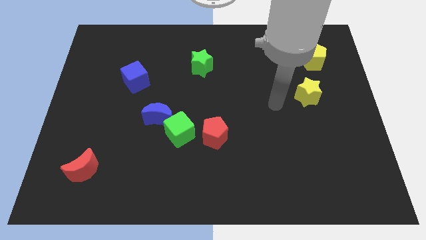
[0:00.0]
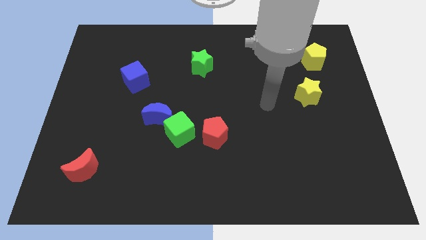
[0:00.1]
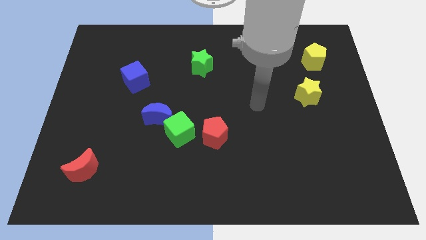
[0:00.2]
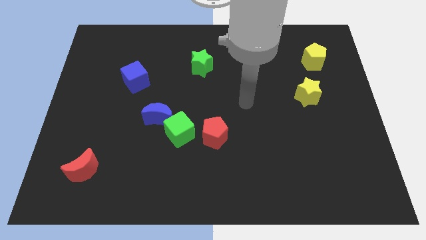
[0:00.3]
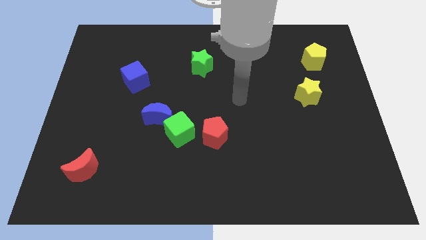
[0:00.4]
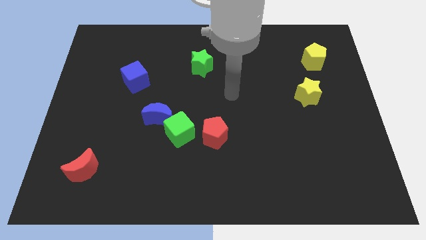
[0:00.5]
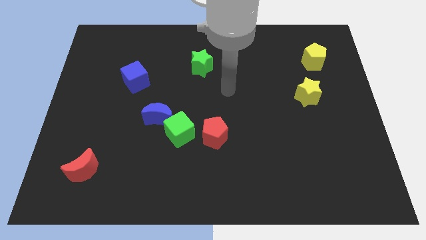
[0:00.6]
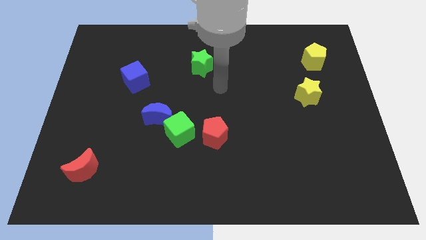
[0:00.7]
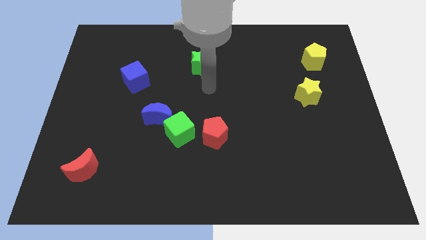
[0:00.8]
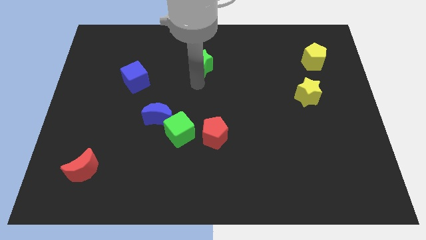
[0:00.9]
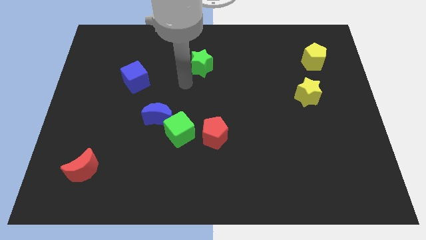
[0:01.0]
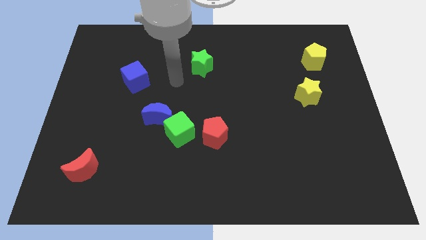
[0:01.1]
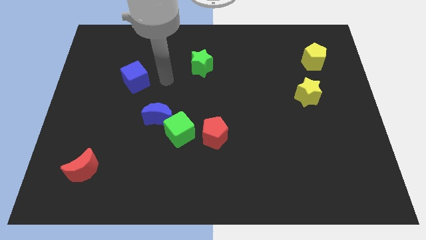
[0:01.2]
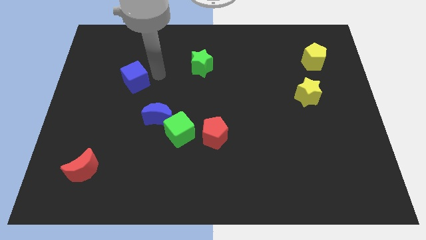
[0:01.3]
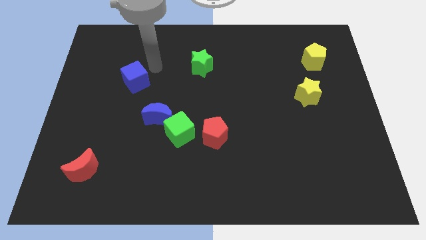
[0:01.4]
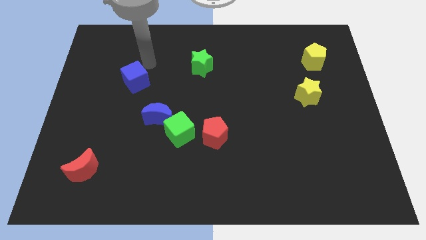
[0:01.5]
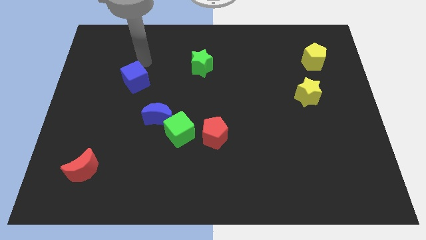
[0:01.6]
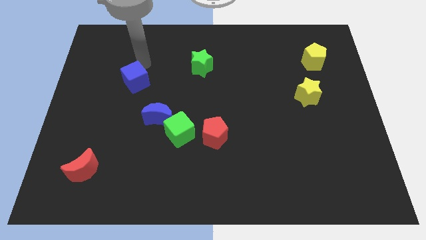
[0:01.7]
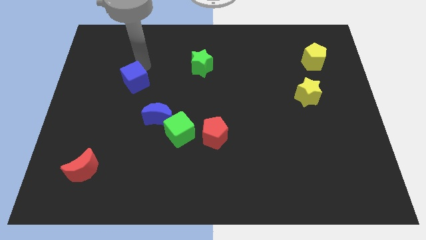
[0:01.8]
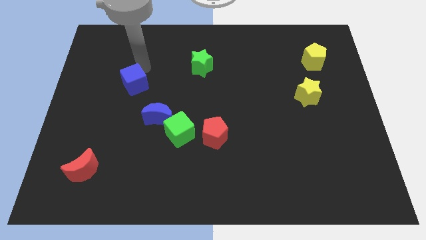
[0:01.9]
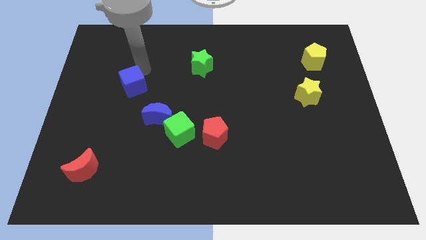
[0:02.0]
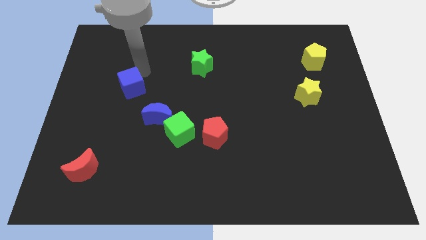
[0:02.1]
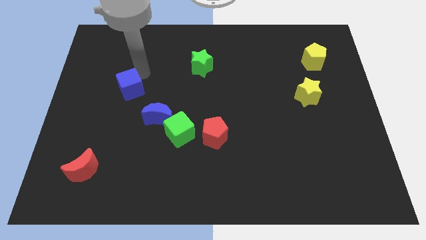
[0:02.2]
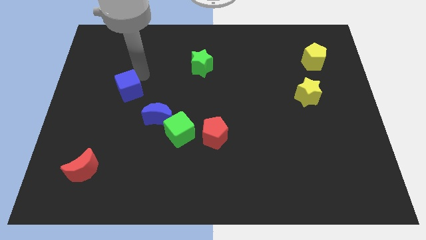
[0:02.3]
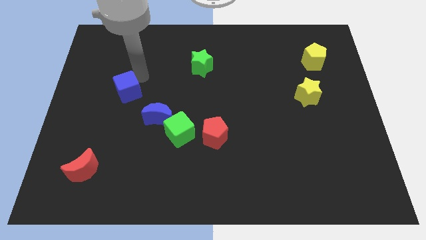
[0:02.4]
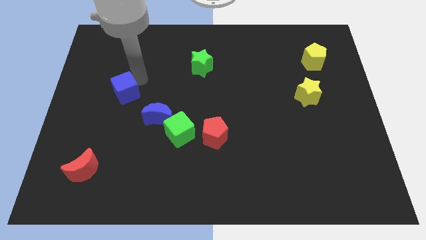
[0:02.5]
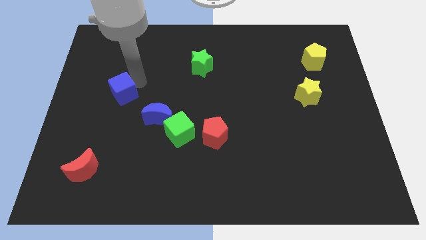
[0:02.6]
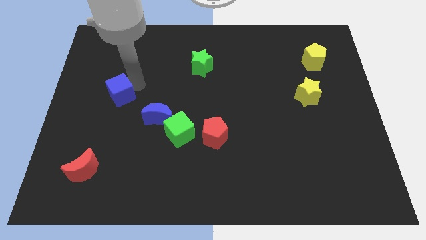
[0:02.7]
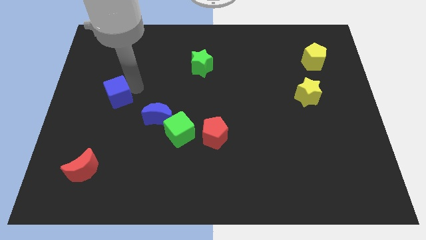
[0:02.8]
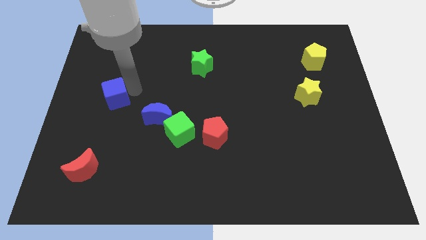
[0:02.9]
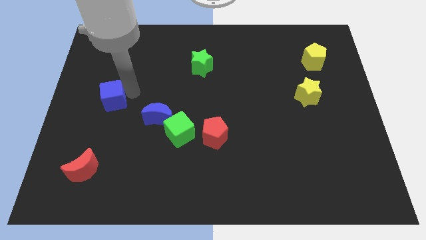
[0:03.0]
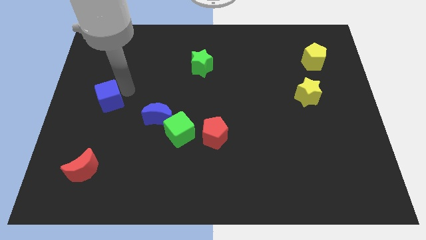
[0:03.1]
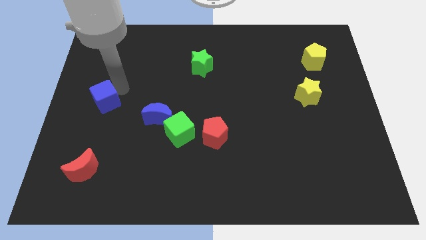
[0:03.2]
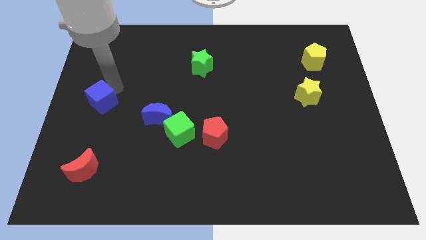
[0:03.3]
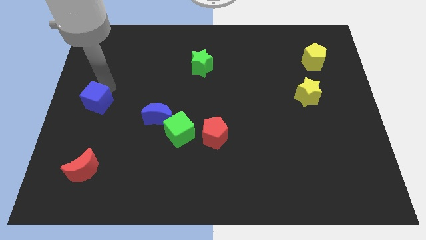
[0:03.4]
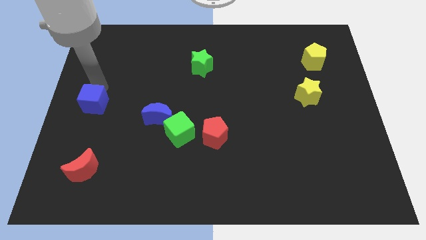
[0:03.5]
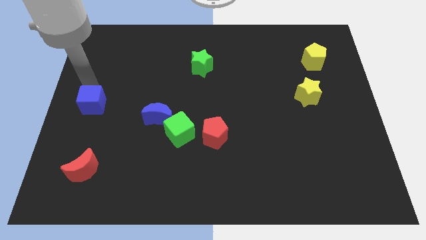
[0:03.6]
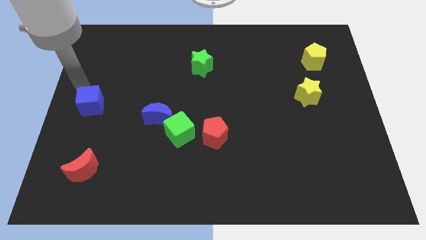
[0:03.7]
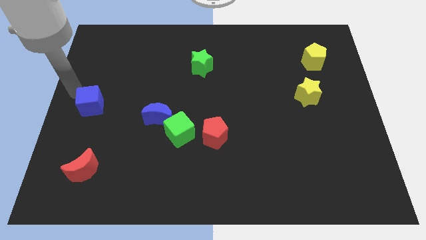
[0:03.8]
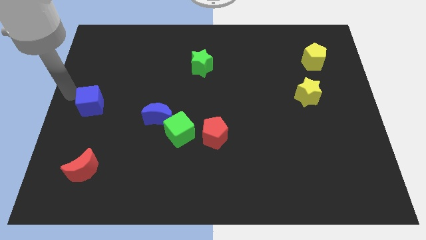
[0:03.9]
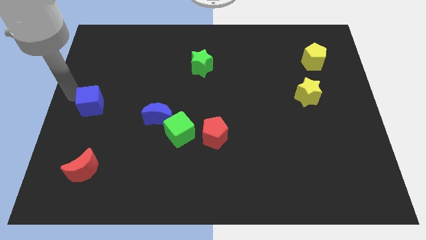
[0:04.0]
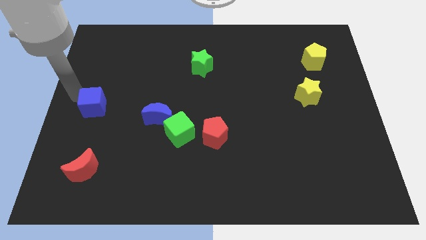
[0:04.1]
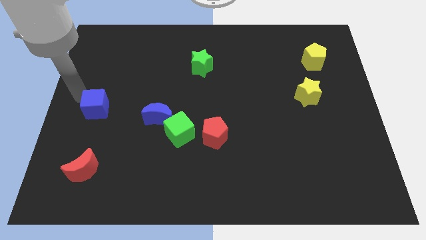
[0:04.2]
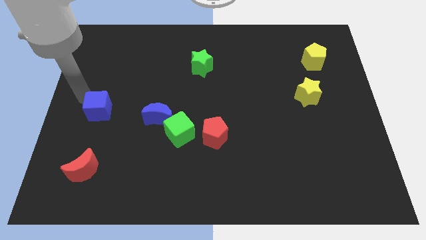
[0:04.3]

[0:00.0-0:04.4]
slightly move the blue cube downwards

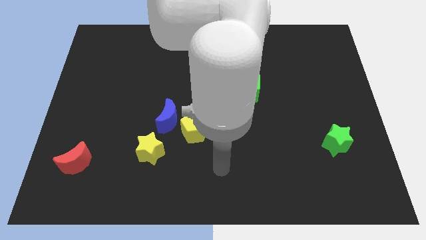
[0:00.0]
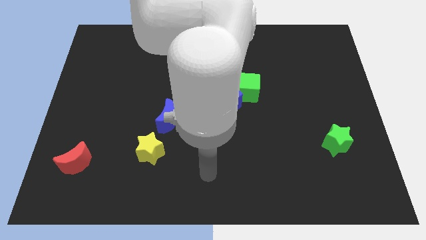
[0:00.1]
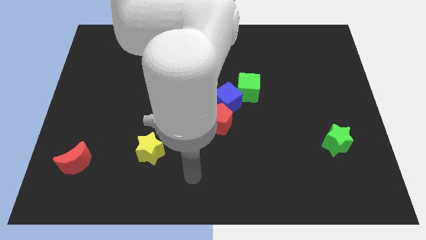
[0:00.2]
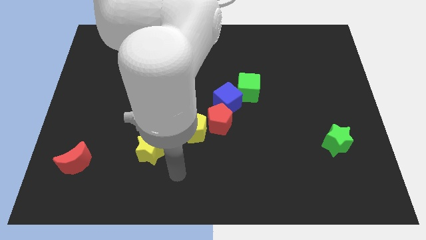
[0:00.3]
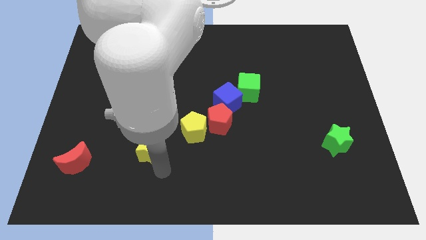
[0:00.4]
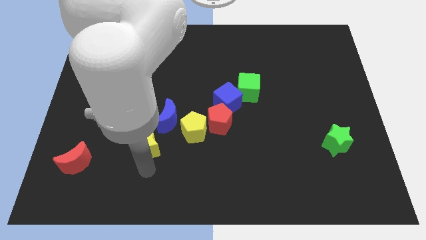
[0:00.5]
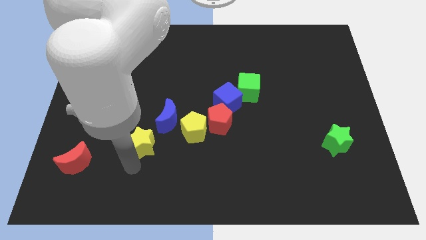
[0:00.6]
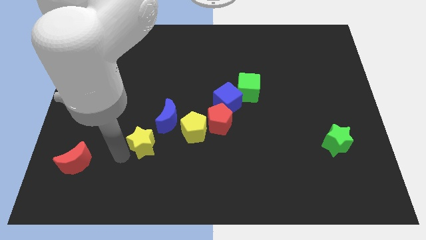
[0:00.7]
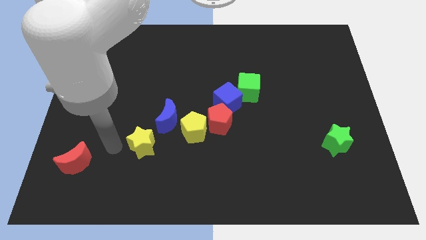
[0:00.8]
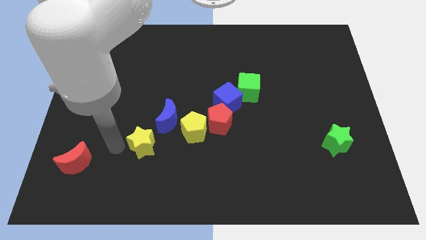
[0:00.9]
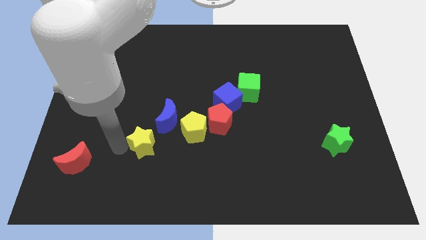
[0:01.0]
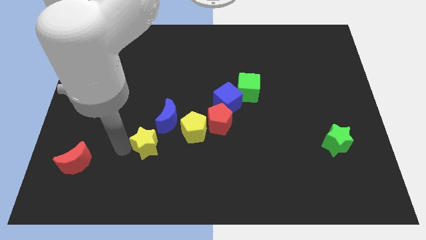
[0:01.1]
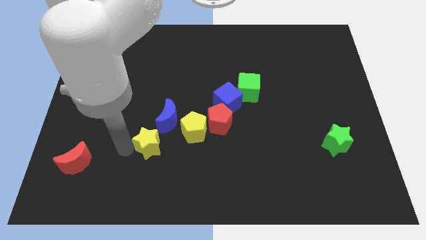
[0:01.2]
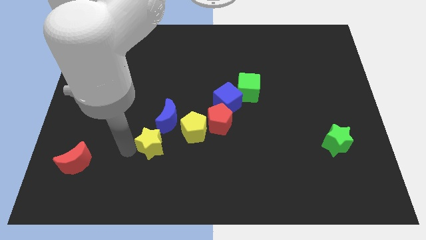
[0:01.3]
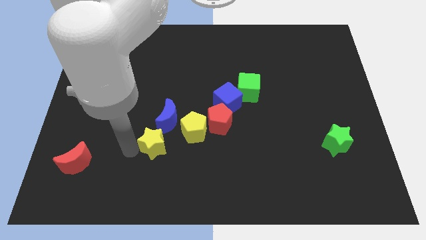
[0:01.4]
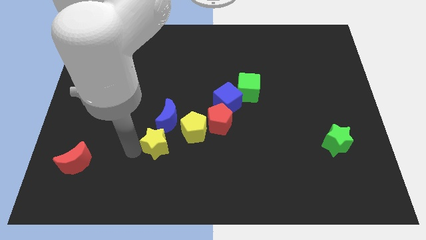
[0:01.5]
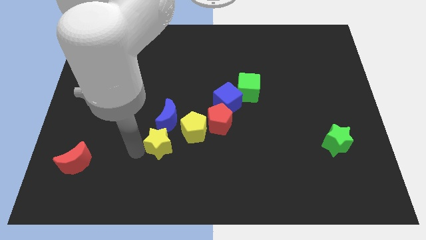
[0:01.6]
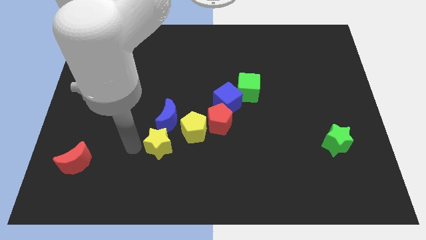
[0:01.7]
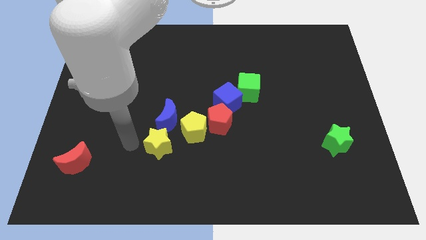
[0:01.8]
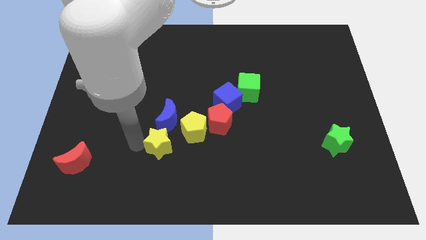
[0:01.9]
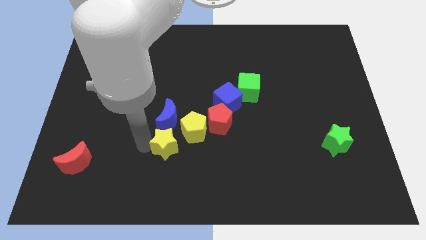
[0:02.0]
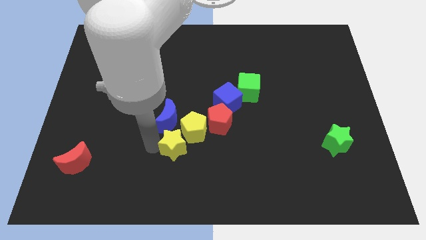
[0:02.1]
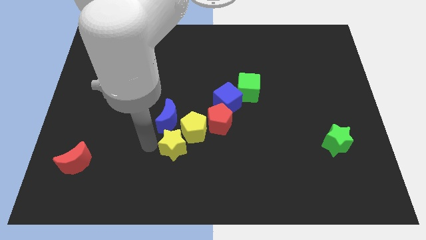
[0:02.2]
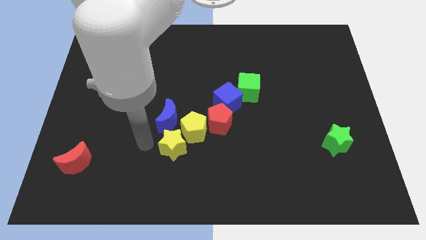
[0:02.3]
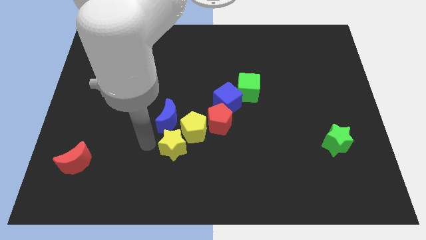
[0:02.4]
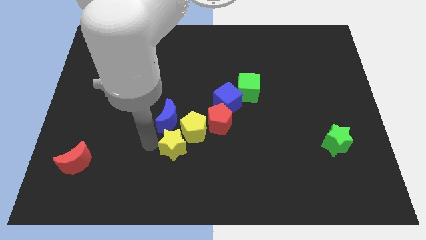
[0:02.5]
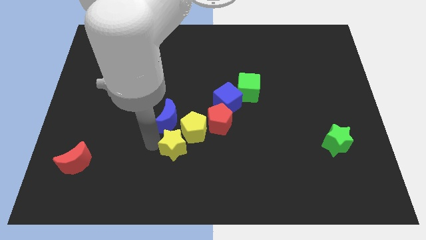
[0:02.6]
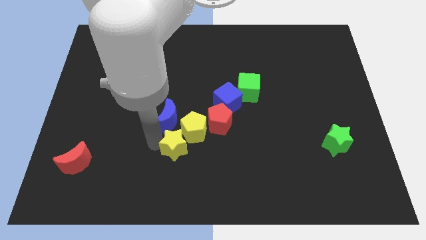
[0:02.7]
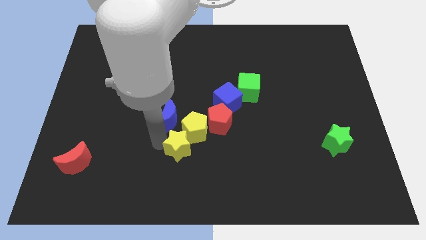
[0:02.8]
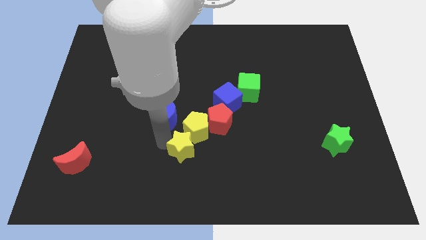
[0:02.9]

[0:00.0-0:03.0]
push the yellow star right a little

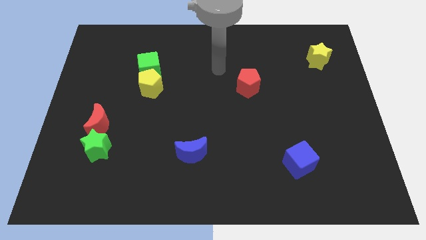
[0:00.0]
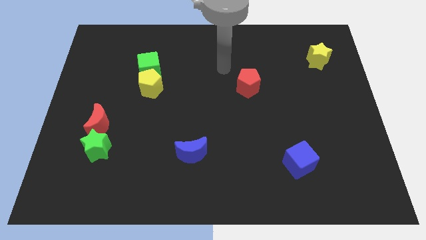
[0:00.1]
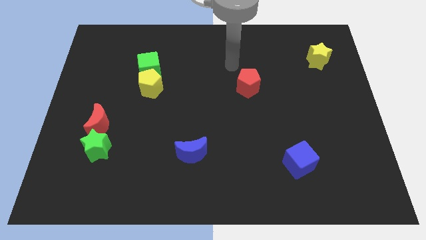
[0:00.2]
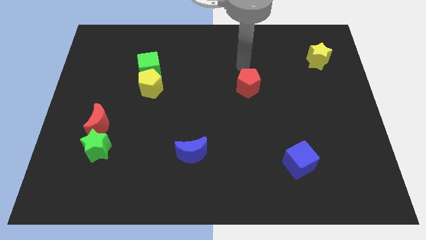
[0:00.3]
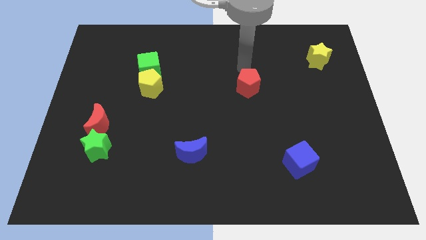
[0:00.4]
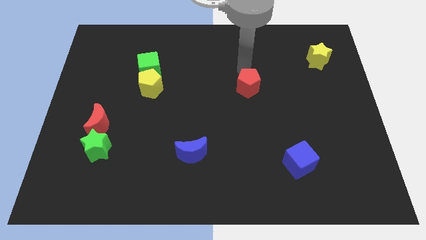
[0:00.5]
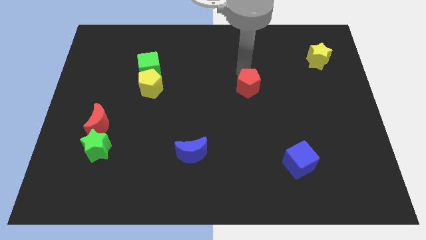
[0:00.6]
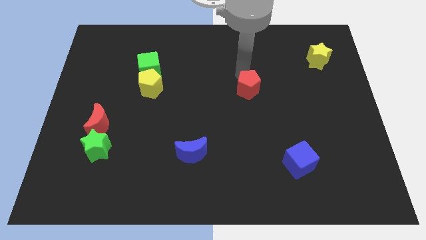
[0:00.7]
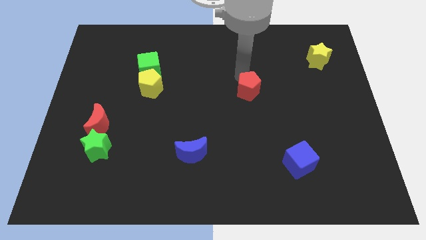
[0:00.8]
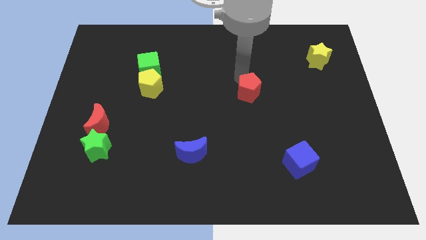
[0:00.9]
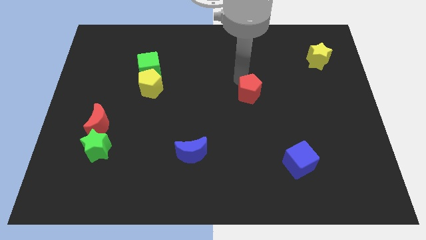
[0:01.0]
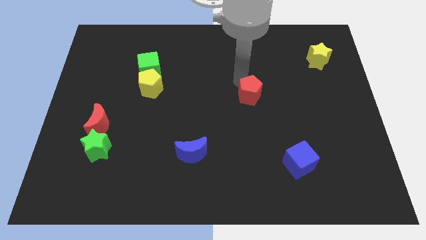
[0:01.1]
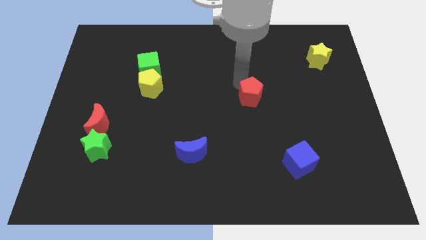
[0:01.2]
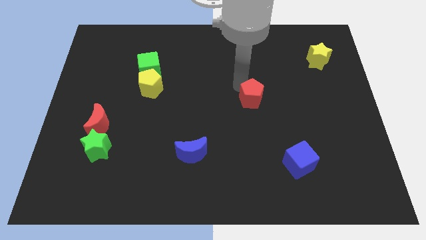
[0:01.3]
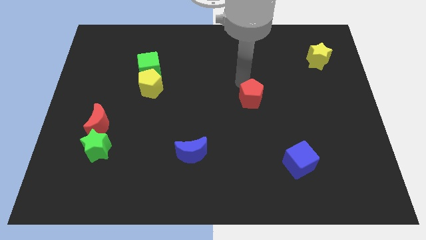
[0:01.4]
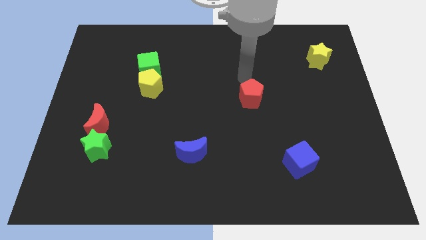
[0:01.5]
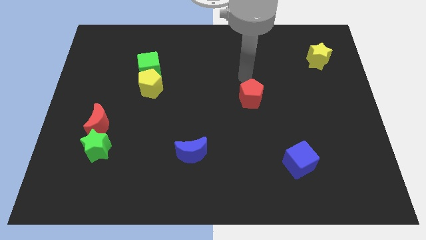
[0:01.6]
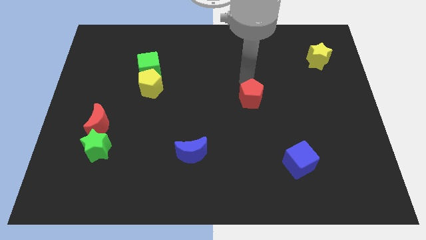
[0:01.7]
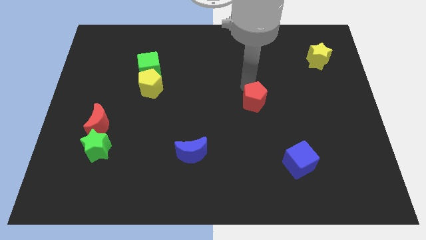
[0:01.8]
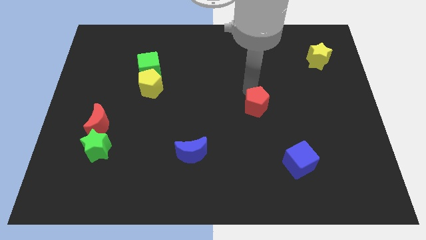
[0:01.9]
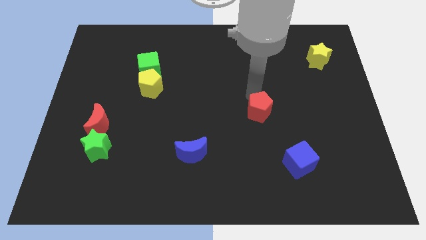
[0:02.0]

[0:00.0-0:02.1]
move the red pentagon a little down
